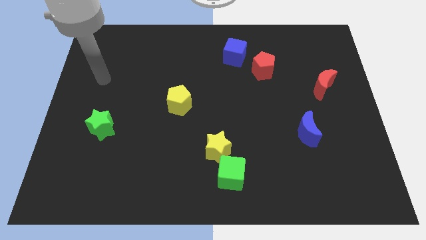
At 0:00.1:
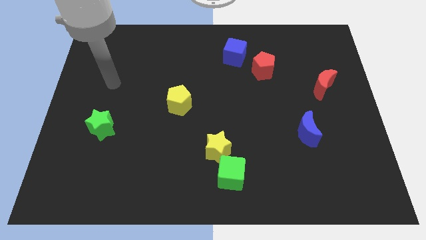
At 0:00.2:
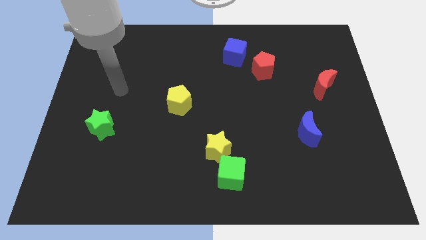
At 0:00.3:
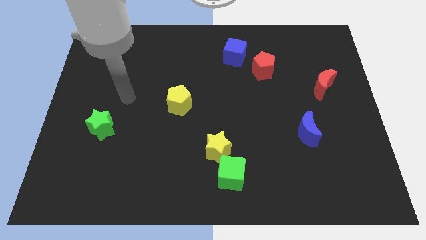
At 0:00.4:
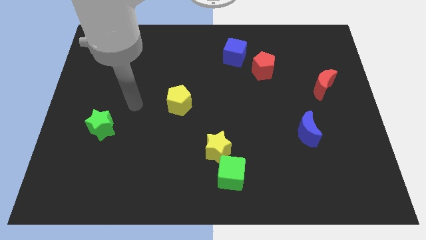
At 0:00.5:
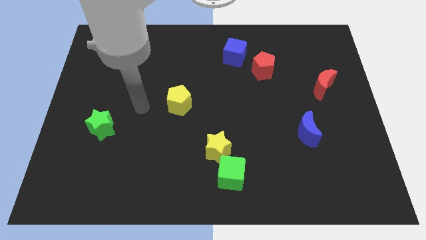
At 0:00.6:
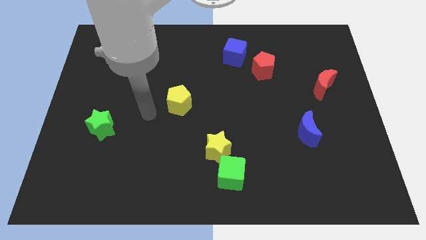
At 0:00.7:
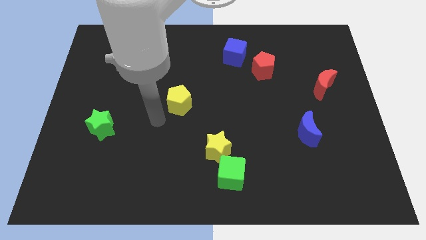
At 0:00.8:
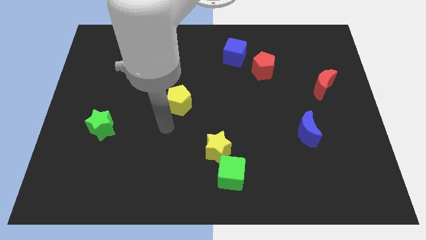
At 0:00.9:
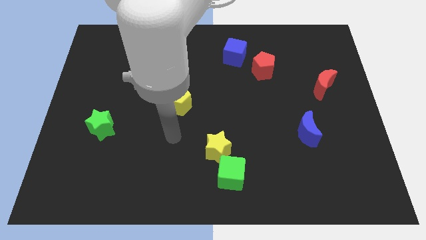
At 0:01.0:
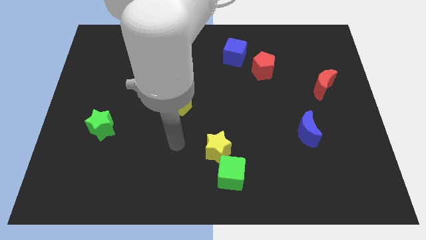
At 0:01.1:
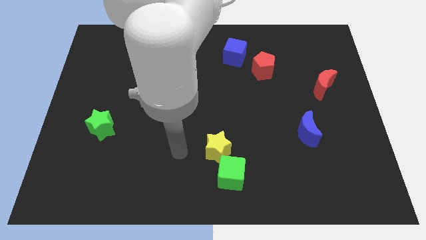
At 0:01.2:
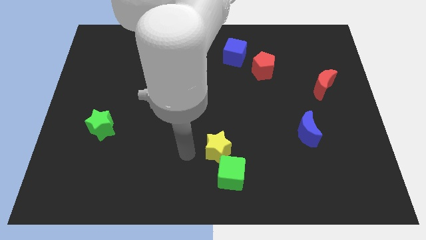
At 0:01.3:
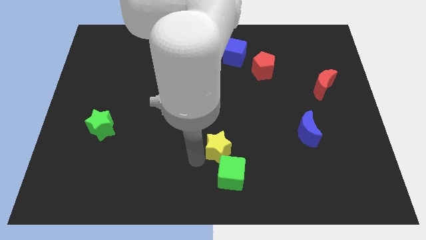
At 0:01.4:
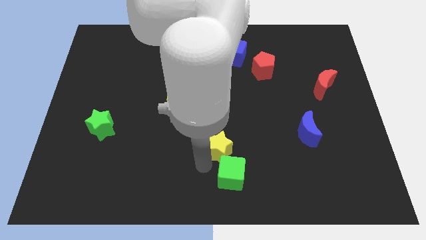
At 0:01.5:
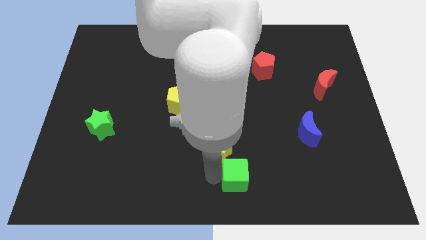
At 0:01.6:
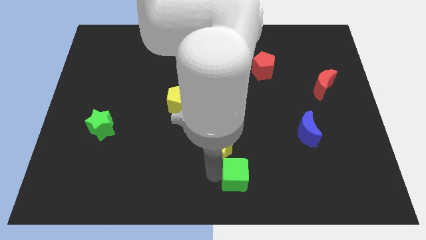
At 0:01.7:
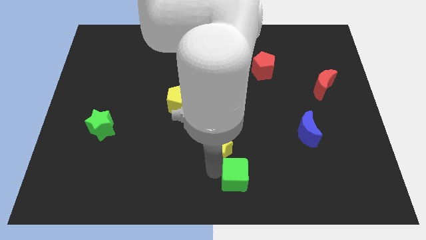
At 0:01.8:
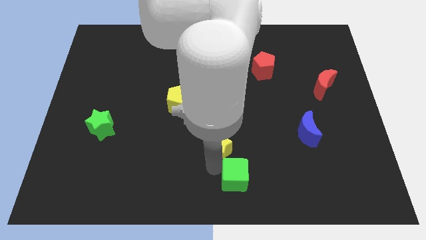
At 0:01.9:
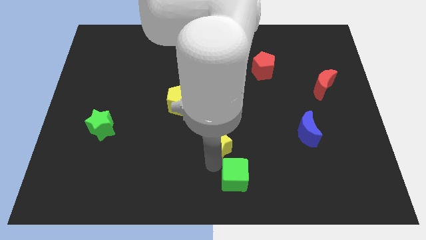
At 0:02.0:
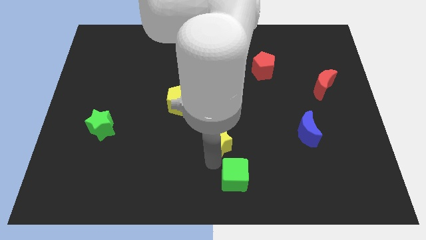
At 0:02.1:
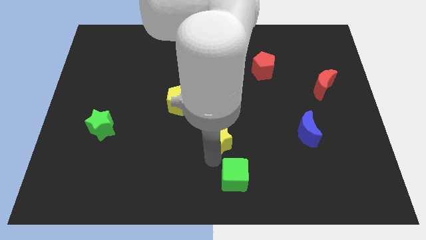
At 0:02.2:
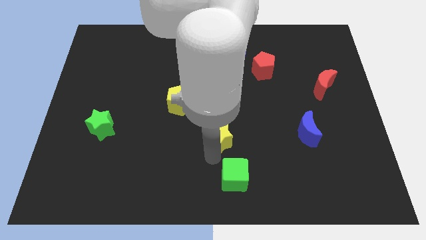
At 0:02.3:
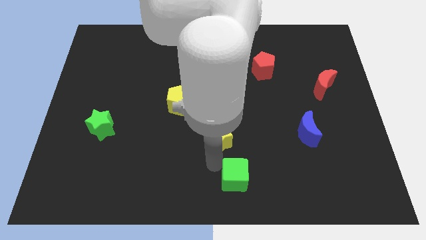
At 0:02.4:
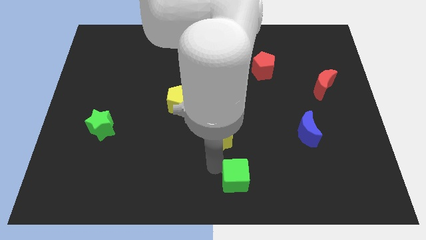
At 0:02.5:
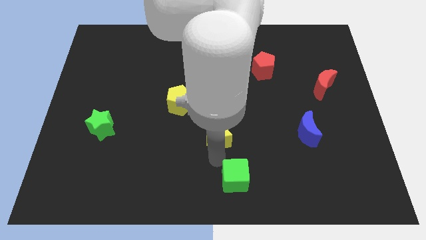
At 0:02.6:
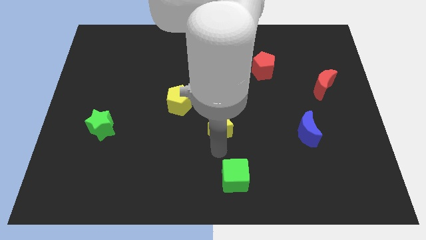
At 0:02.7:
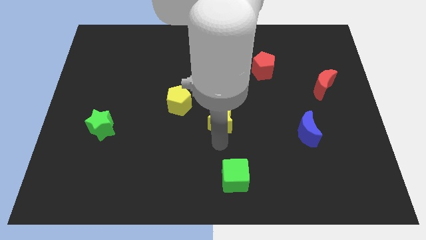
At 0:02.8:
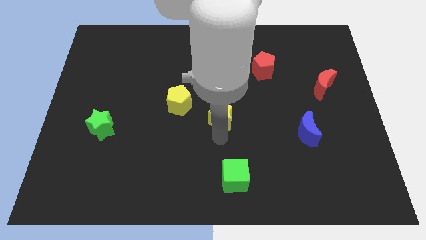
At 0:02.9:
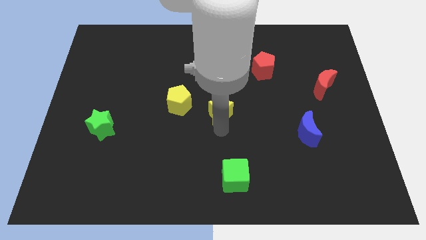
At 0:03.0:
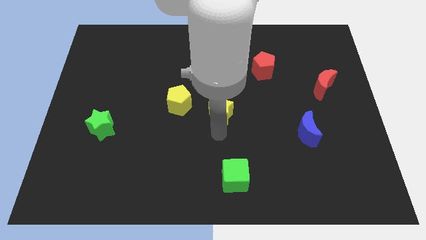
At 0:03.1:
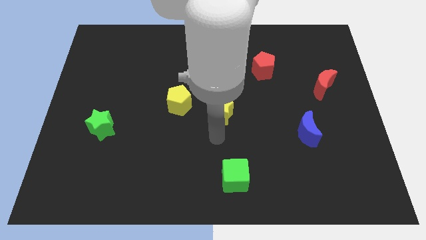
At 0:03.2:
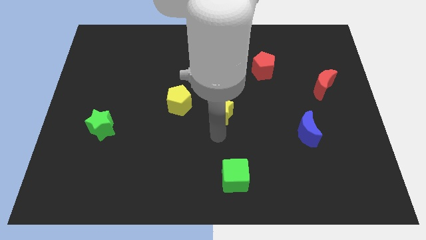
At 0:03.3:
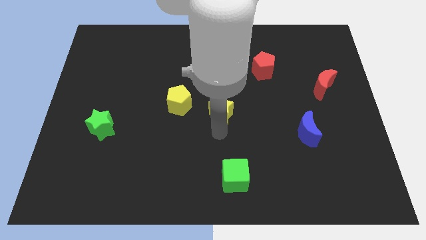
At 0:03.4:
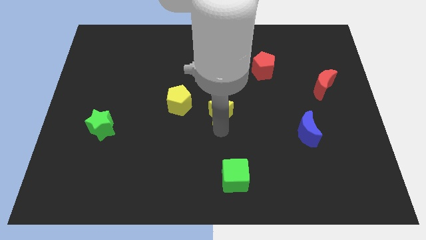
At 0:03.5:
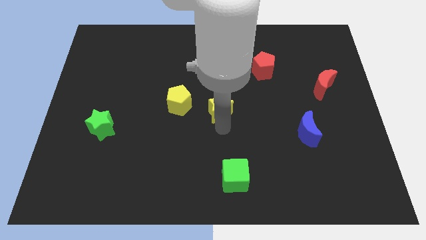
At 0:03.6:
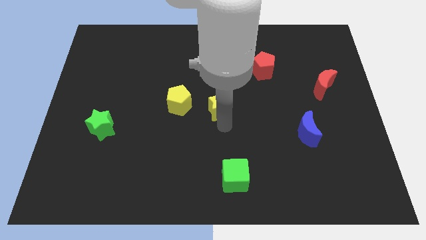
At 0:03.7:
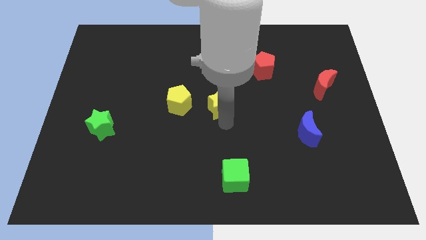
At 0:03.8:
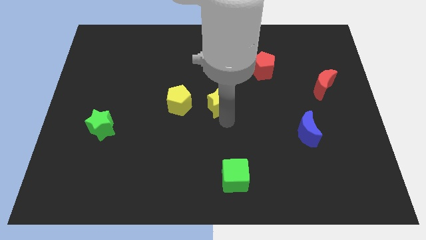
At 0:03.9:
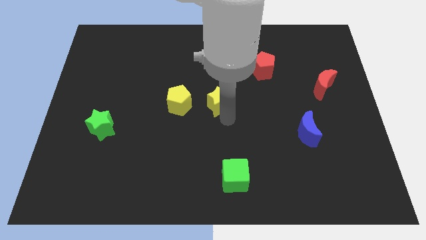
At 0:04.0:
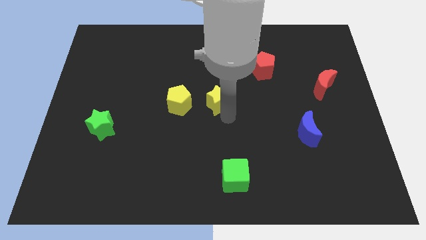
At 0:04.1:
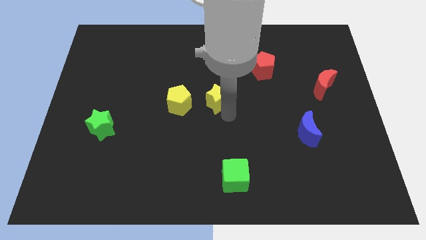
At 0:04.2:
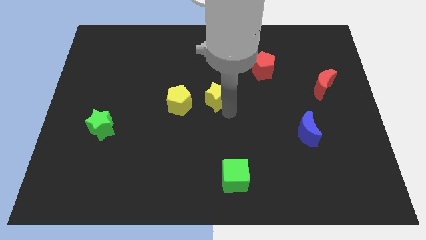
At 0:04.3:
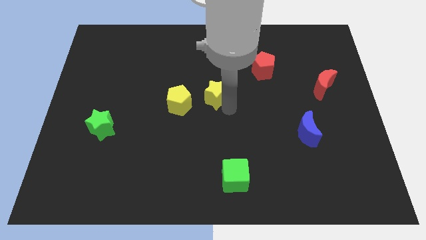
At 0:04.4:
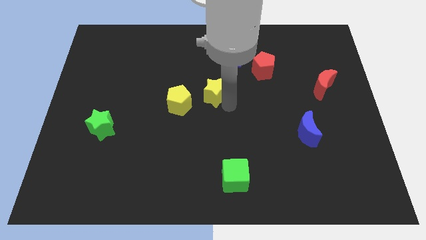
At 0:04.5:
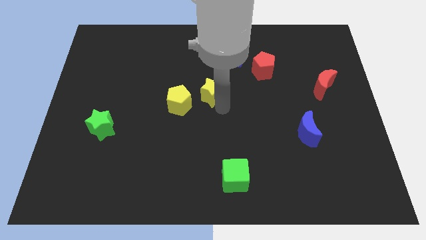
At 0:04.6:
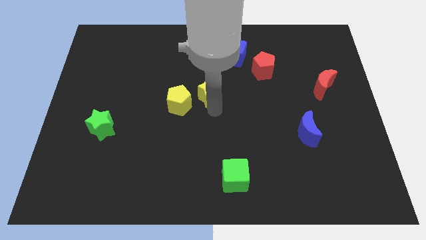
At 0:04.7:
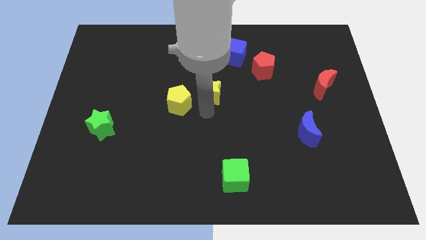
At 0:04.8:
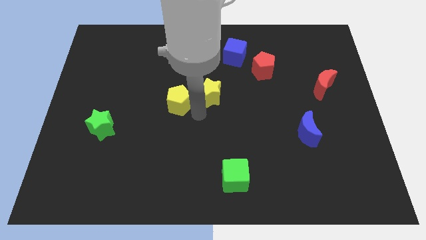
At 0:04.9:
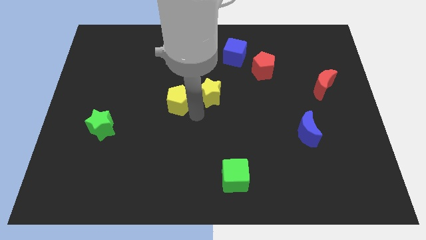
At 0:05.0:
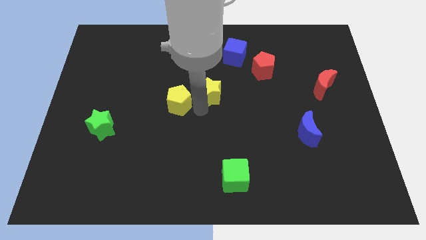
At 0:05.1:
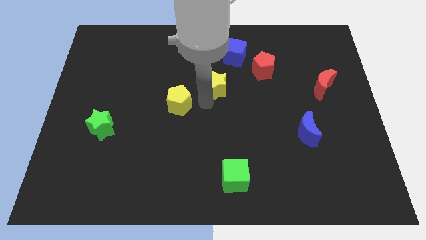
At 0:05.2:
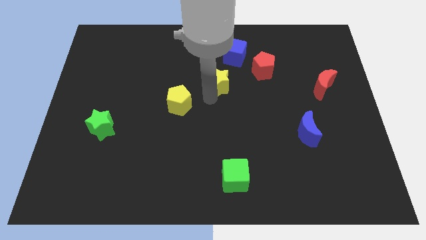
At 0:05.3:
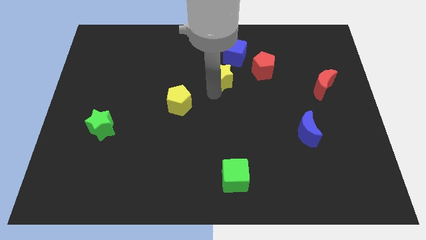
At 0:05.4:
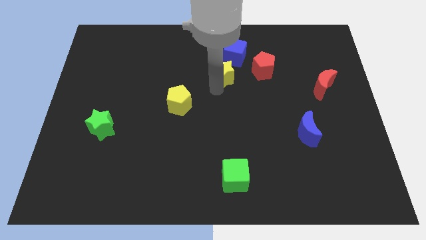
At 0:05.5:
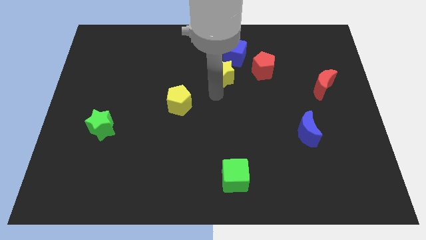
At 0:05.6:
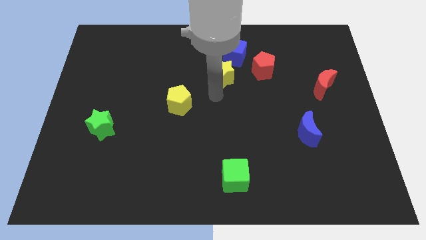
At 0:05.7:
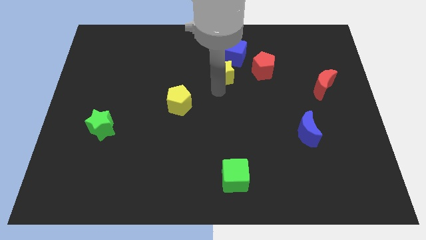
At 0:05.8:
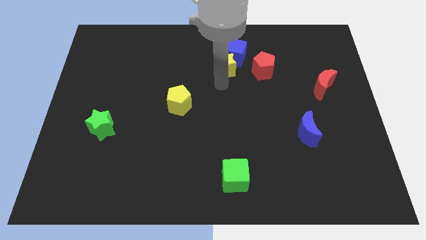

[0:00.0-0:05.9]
put the yellow star towards the blue cube

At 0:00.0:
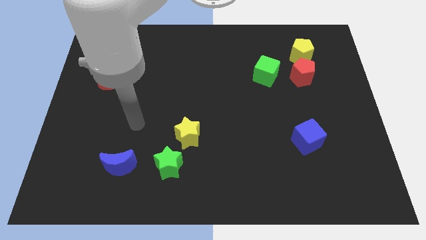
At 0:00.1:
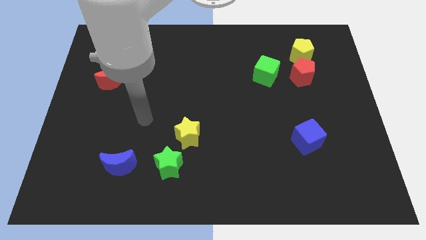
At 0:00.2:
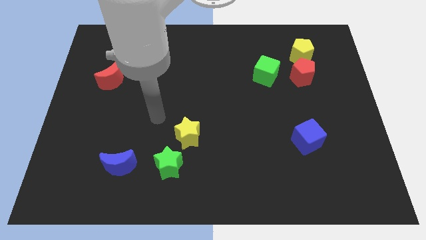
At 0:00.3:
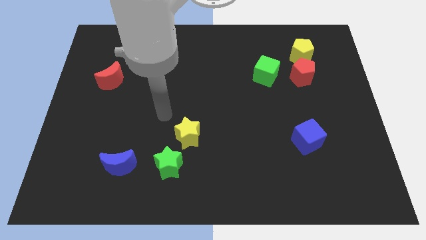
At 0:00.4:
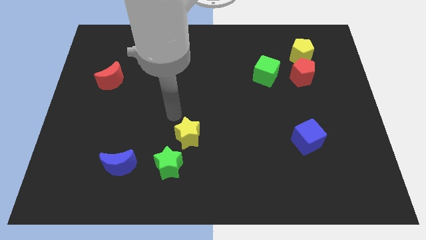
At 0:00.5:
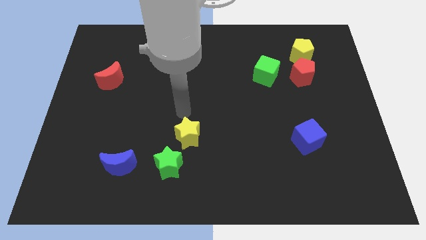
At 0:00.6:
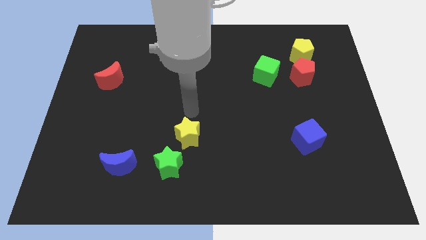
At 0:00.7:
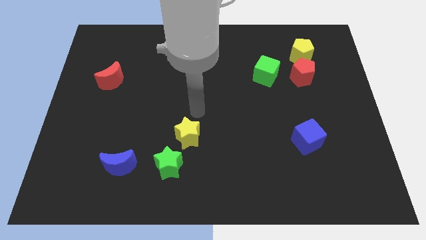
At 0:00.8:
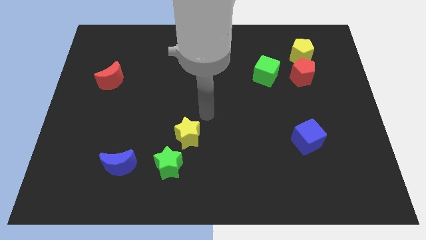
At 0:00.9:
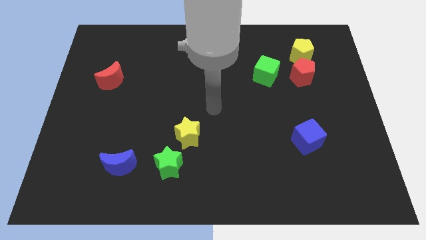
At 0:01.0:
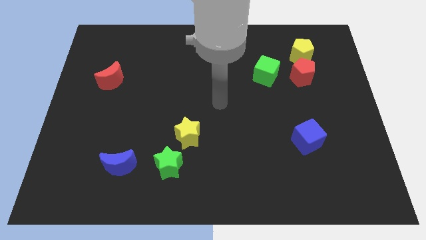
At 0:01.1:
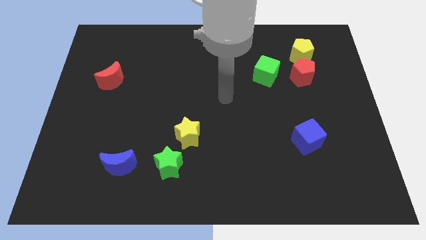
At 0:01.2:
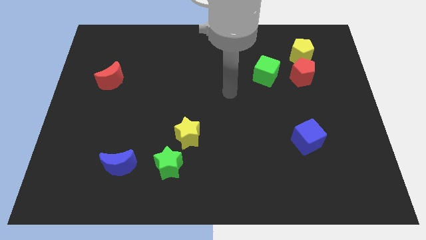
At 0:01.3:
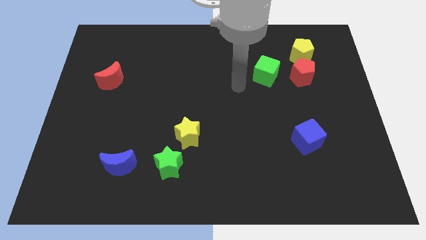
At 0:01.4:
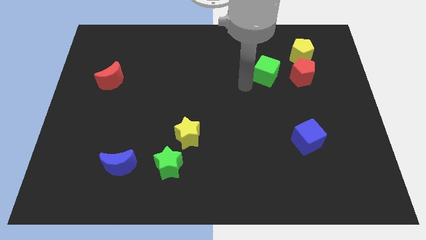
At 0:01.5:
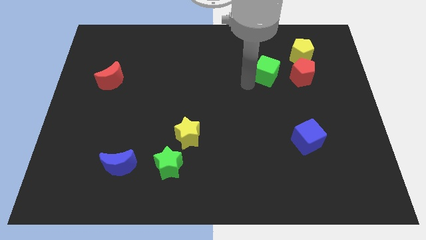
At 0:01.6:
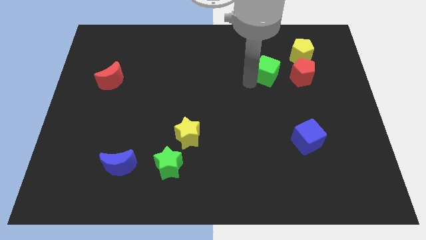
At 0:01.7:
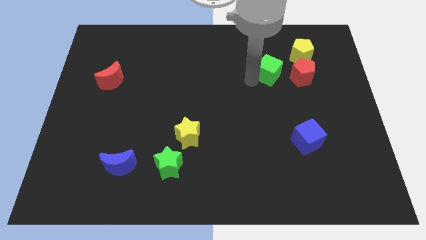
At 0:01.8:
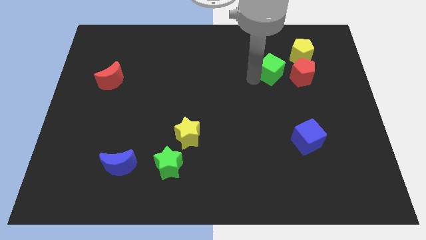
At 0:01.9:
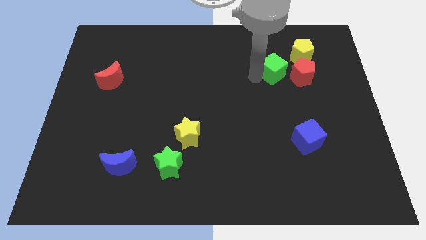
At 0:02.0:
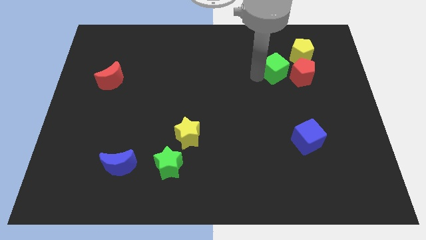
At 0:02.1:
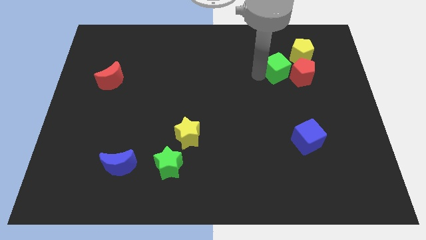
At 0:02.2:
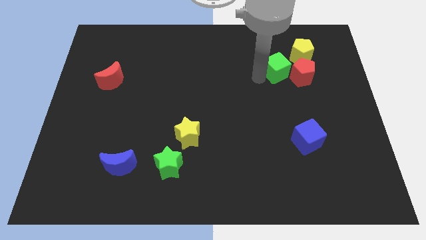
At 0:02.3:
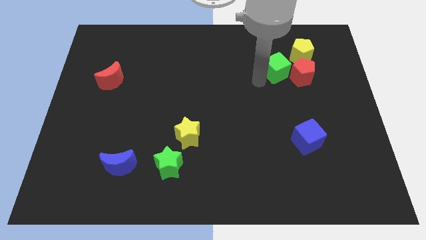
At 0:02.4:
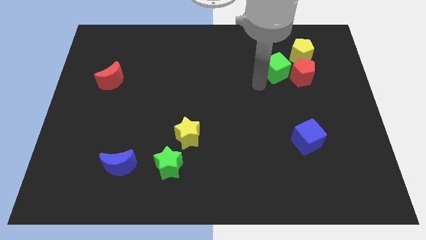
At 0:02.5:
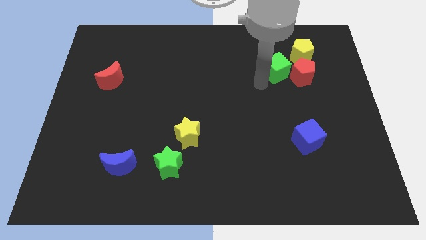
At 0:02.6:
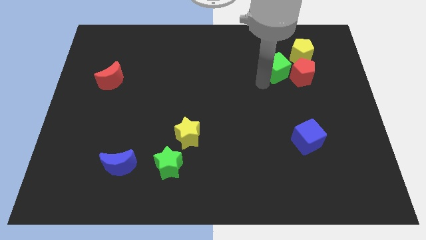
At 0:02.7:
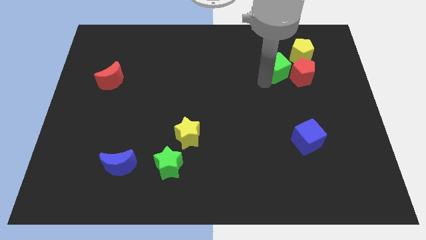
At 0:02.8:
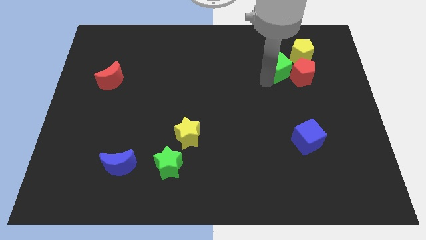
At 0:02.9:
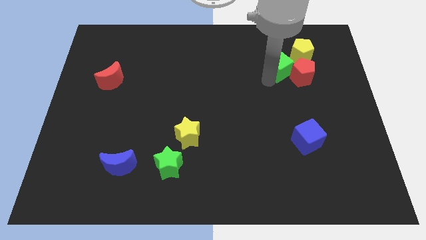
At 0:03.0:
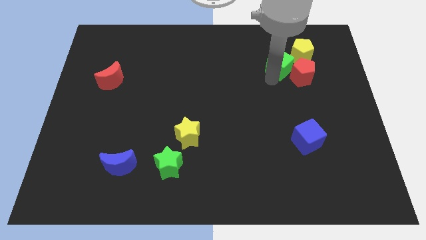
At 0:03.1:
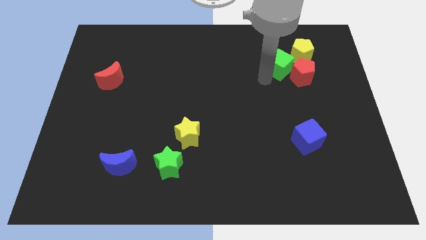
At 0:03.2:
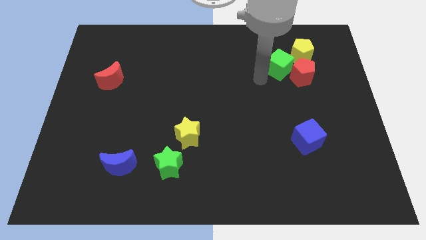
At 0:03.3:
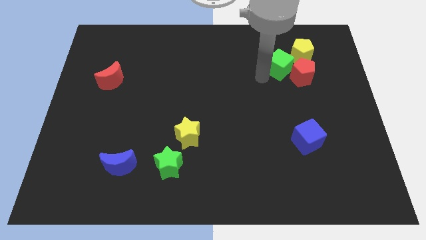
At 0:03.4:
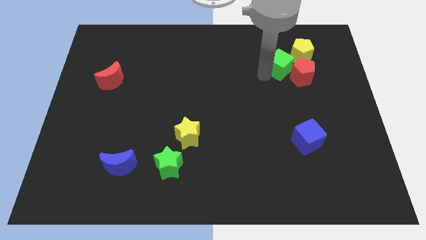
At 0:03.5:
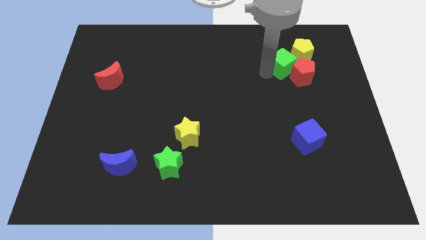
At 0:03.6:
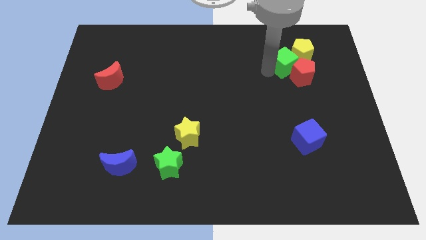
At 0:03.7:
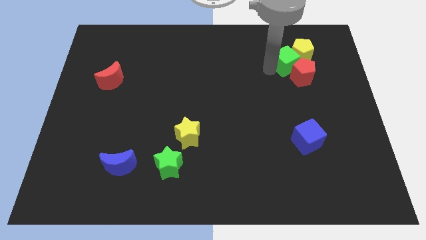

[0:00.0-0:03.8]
slide the green cube towards the yellow pentagon
